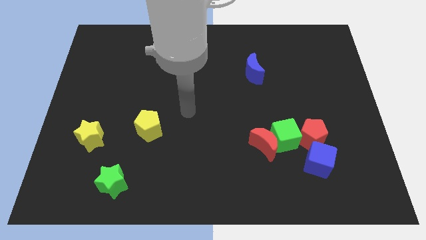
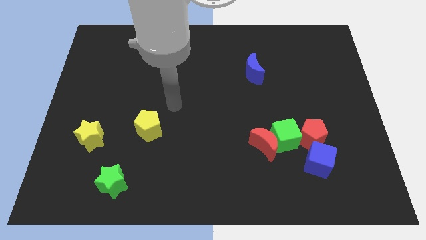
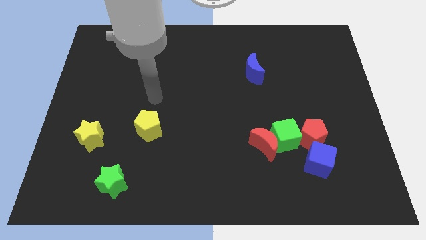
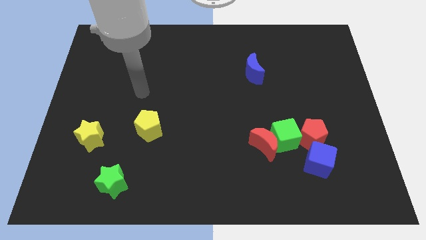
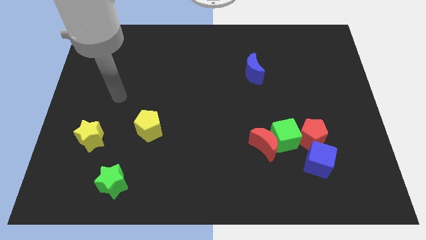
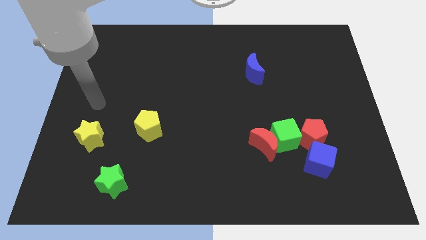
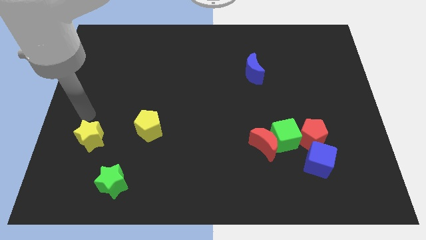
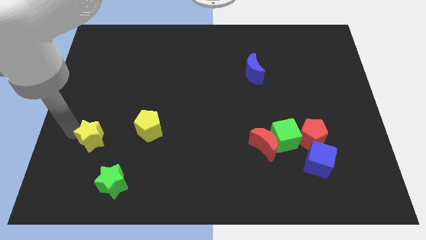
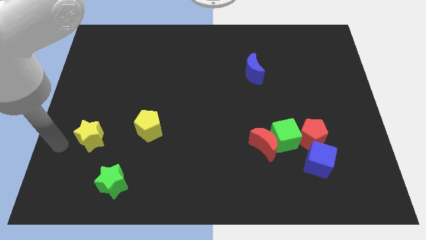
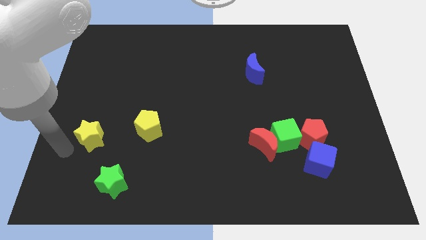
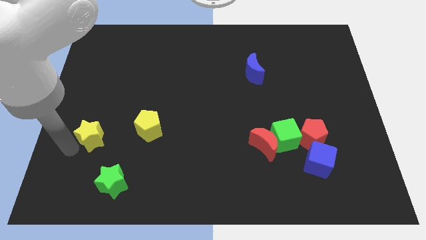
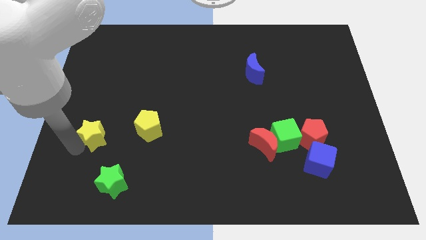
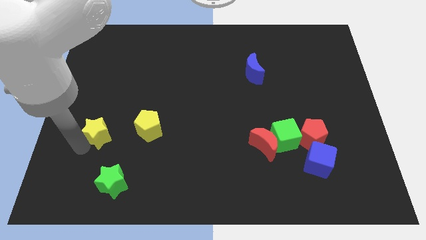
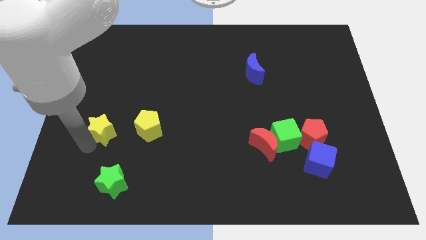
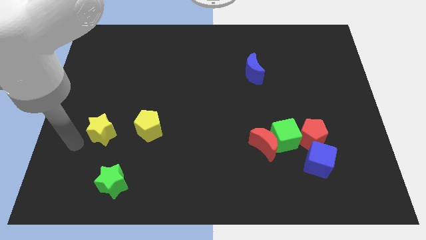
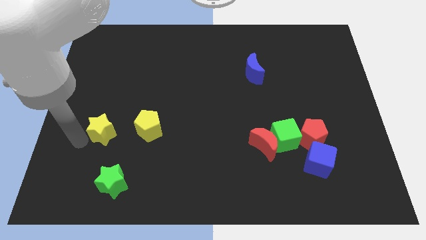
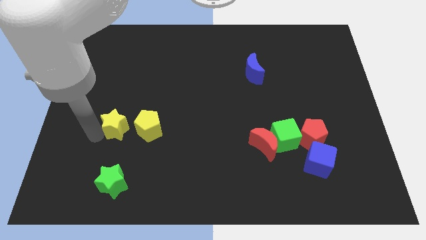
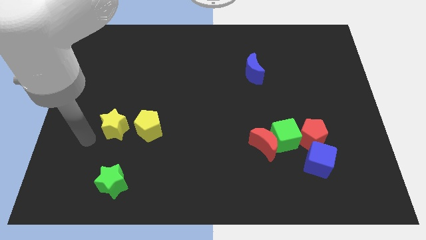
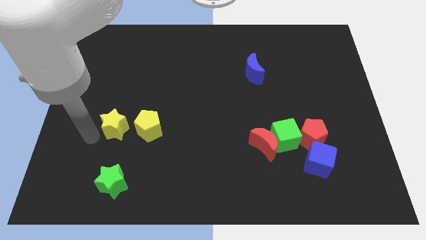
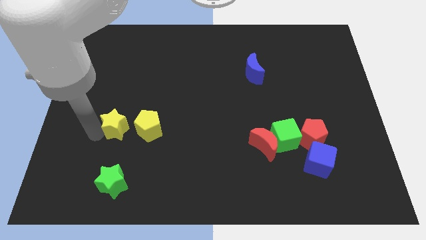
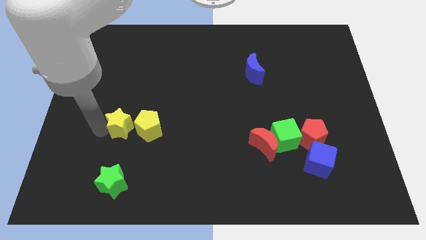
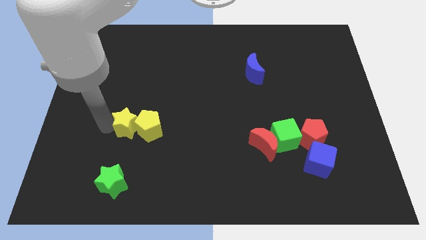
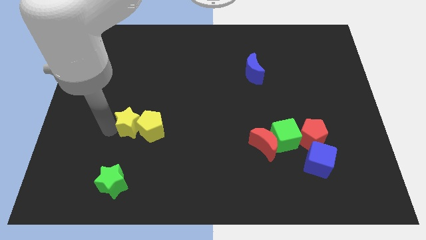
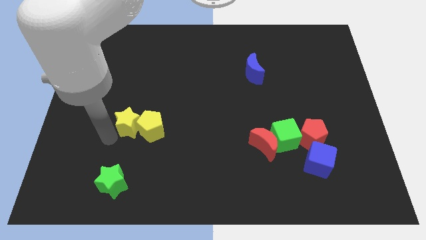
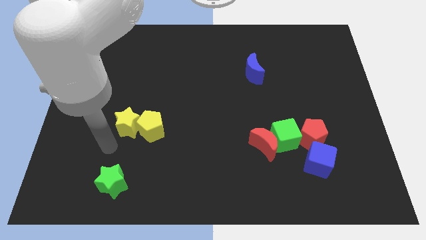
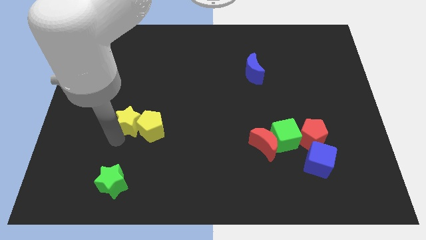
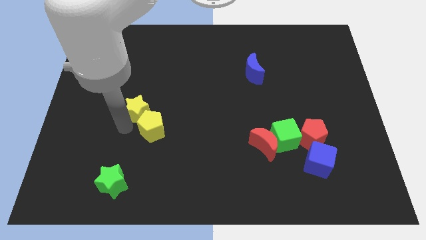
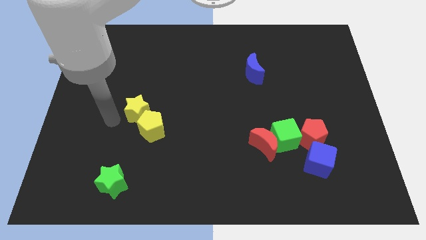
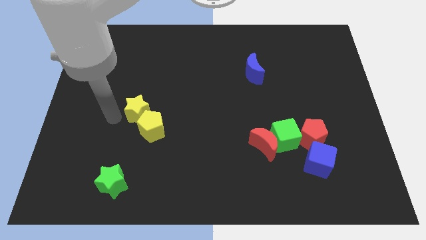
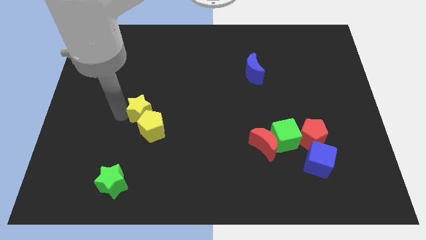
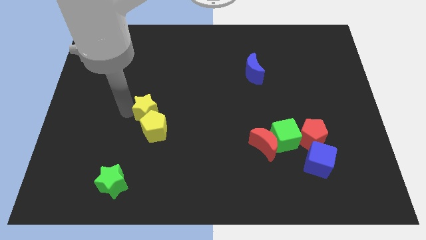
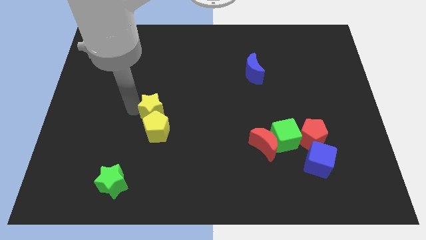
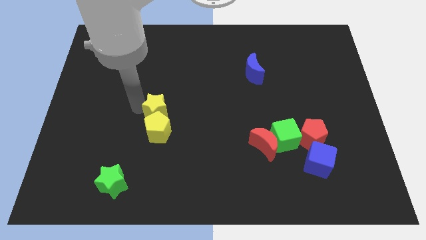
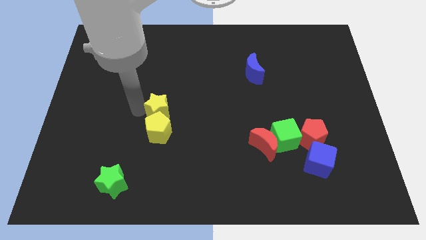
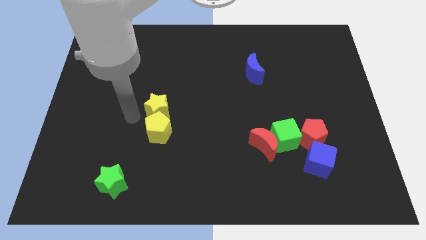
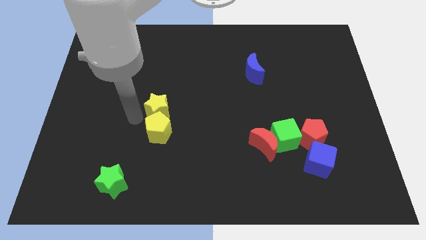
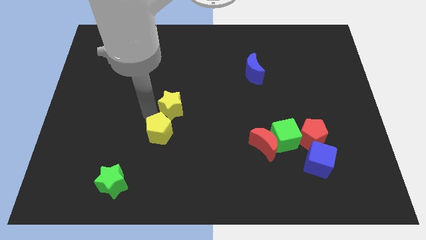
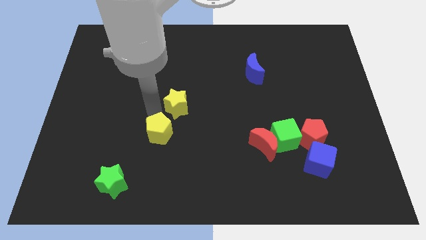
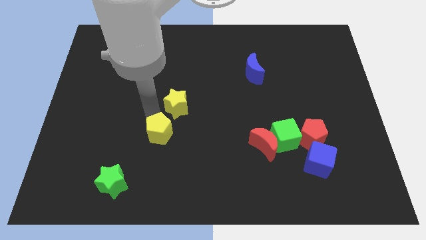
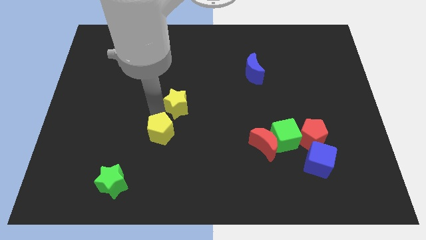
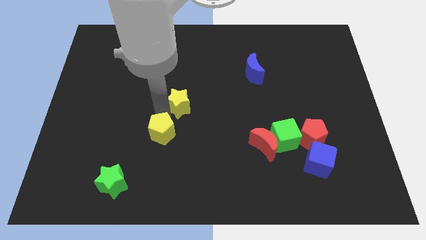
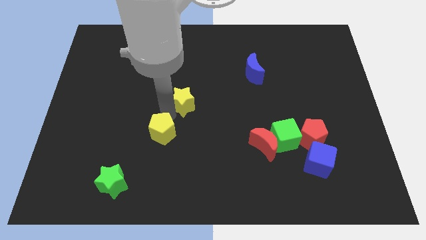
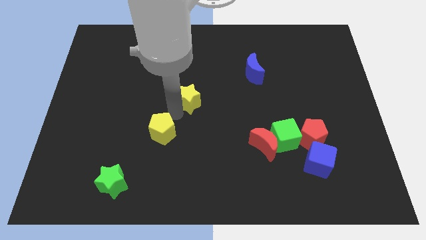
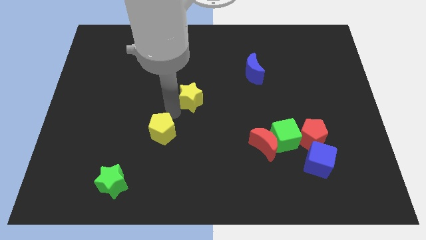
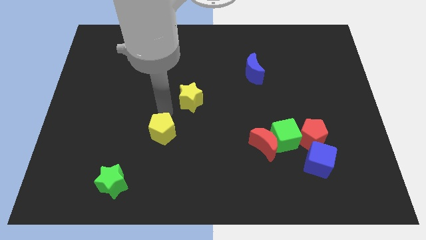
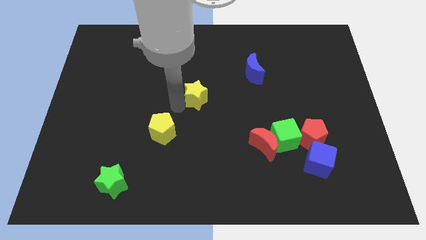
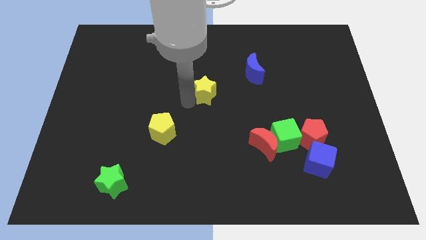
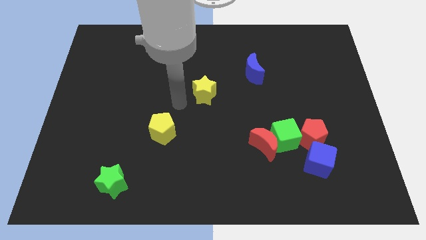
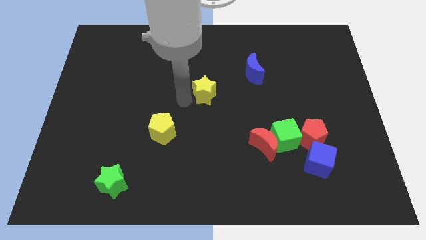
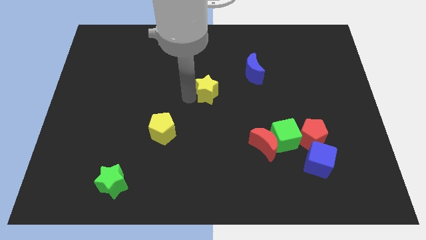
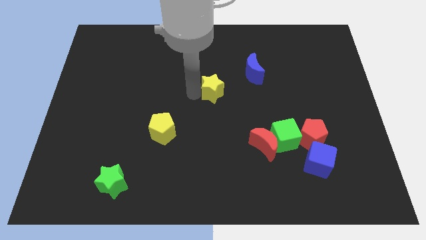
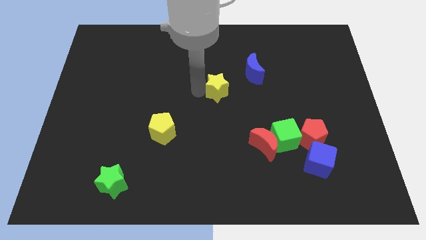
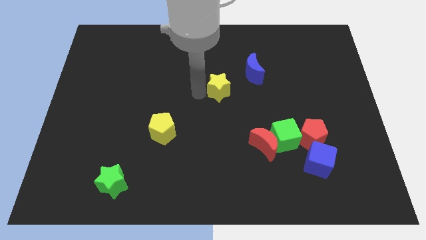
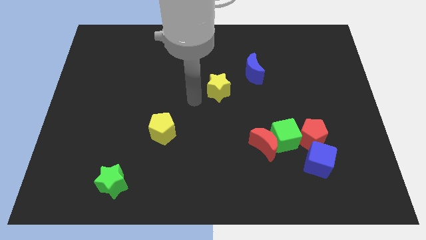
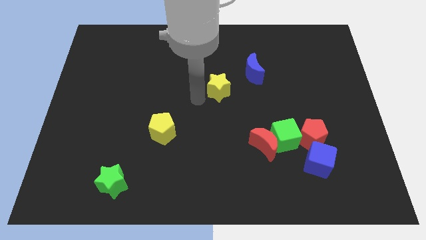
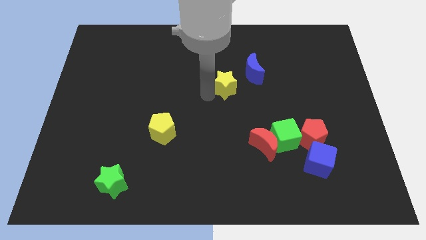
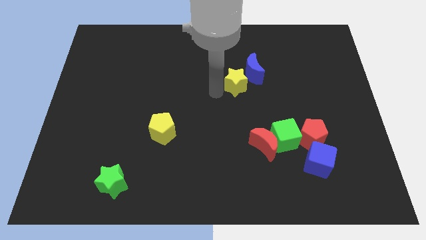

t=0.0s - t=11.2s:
slide the yellow star close to the blue moon

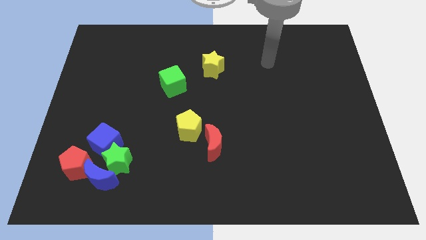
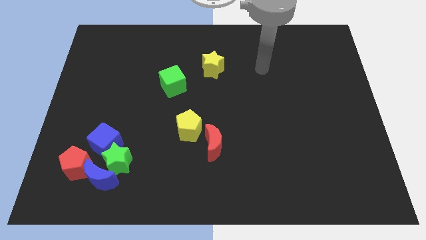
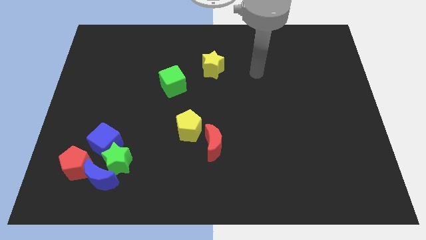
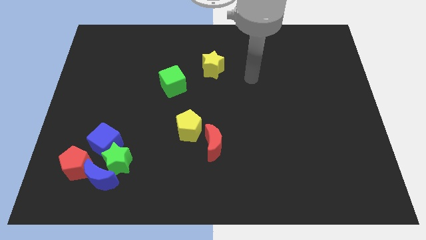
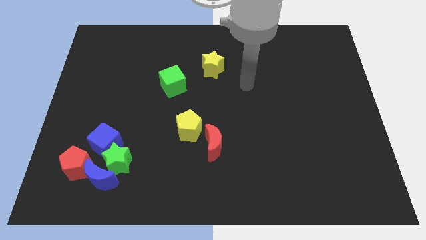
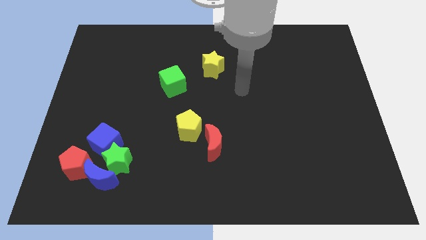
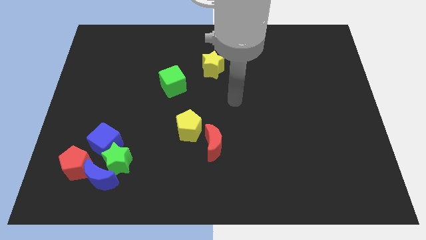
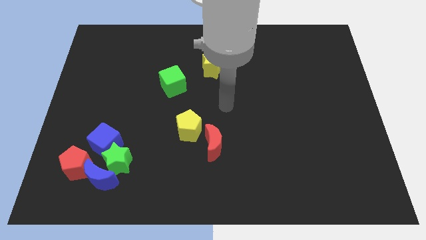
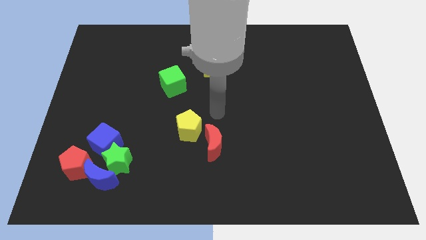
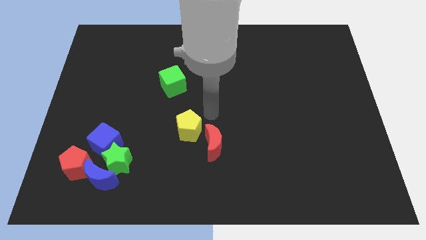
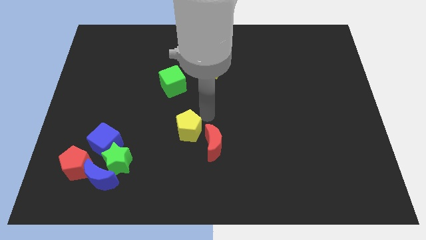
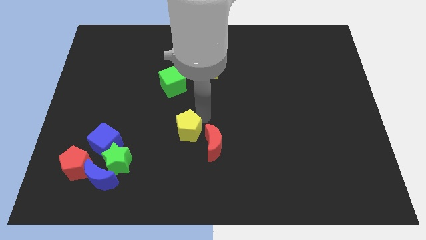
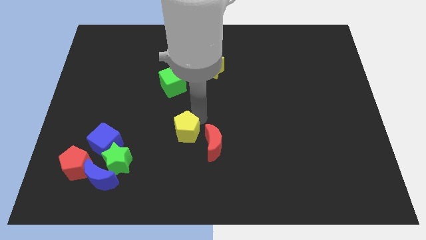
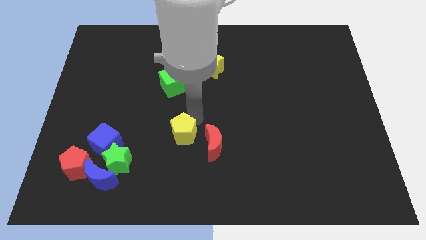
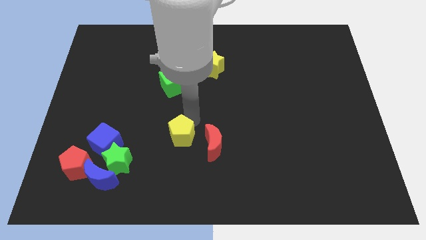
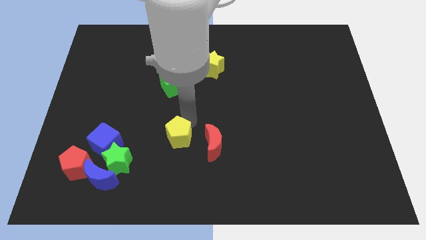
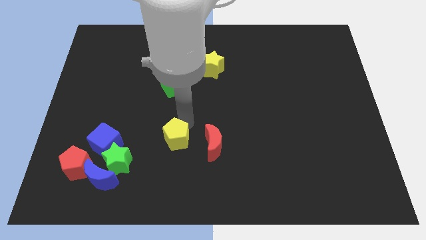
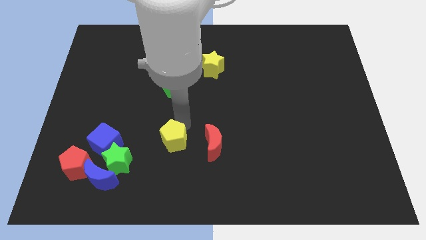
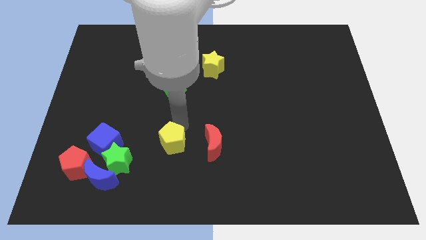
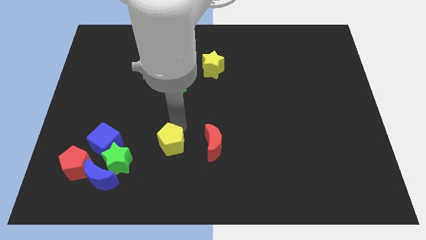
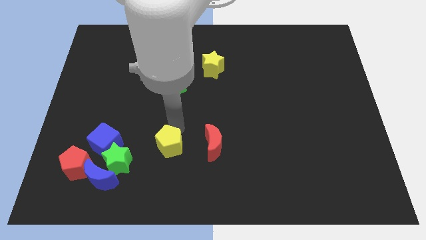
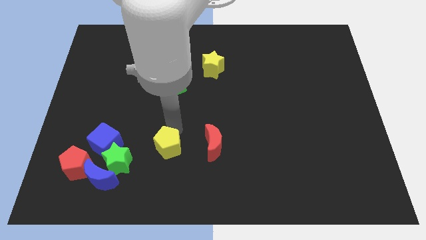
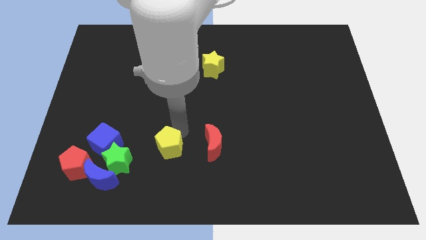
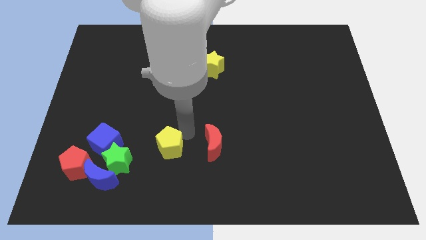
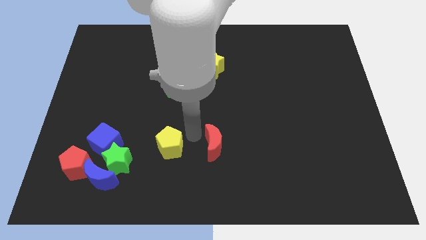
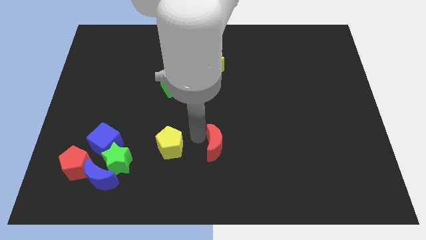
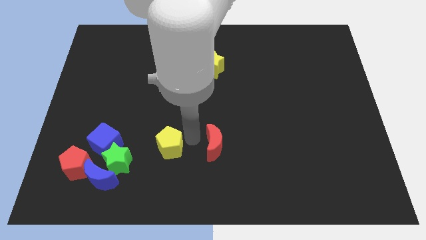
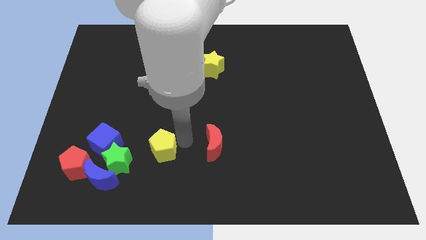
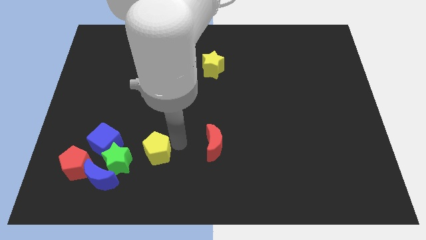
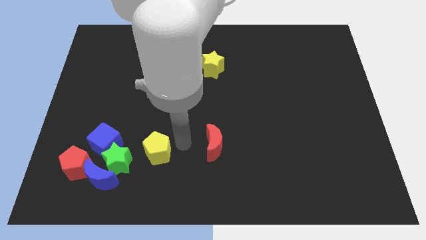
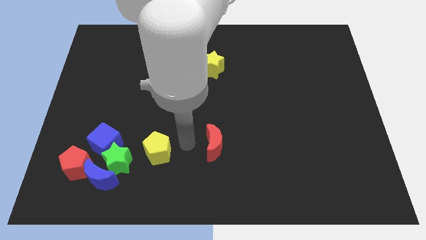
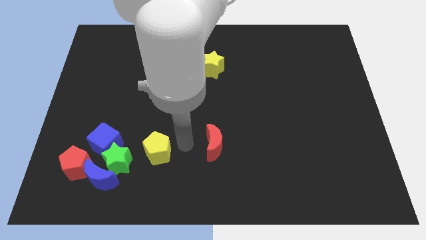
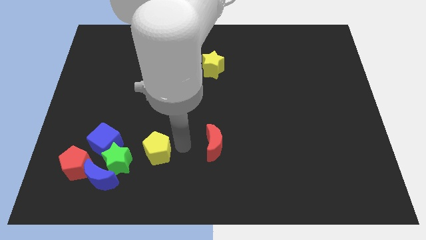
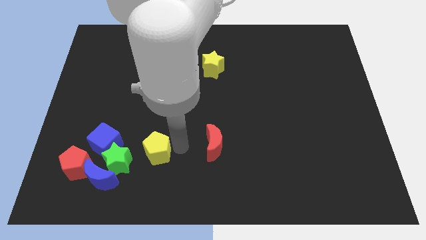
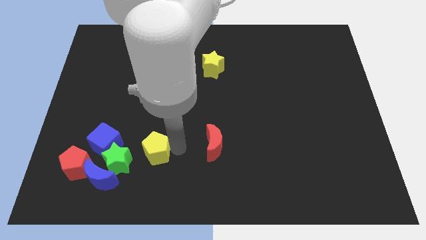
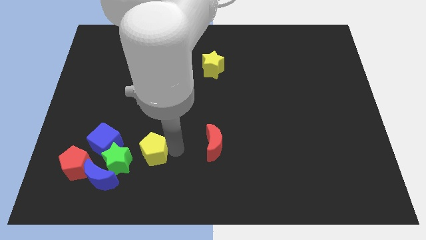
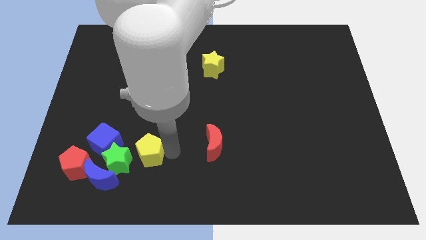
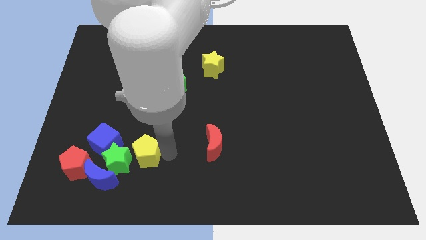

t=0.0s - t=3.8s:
move the yellow pentagon to the green star
